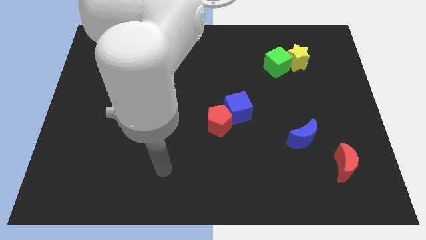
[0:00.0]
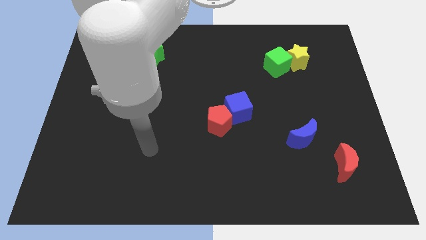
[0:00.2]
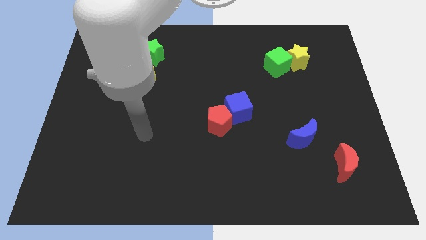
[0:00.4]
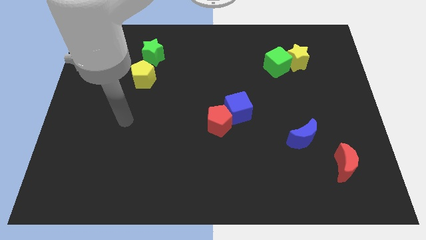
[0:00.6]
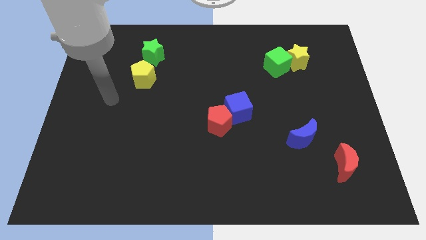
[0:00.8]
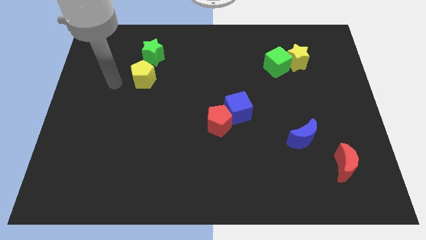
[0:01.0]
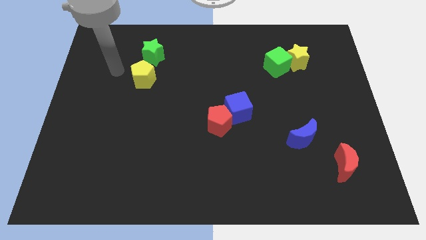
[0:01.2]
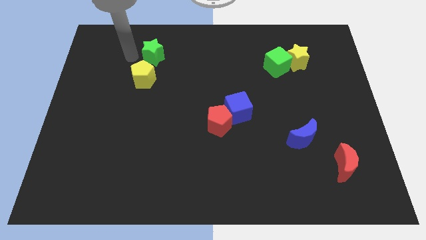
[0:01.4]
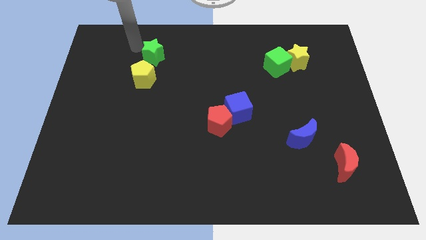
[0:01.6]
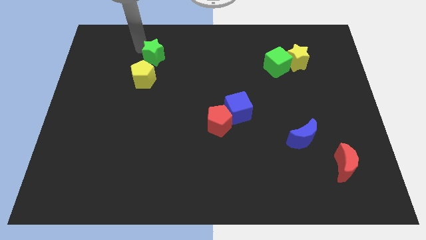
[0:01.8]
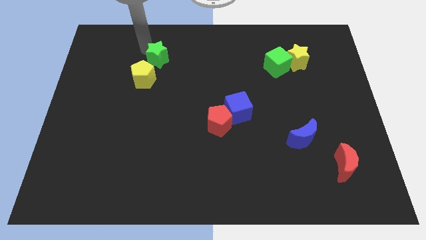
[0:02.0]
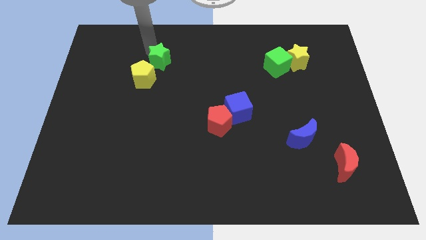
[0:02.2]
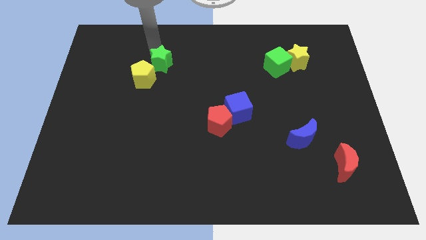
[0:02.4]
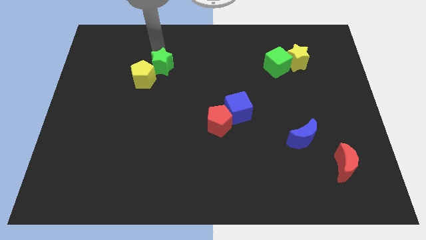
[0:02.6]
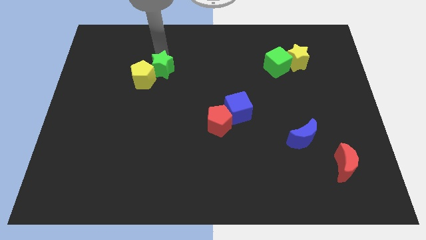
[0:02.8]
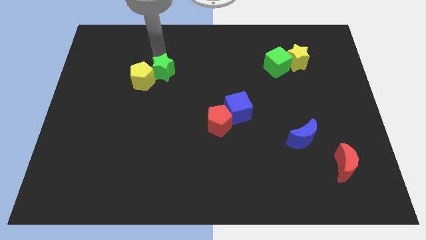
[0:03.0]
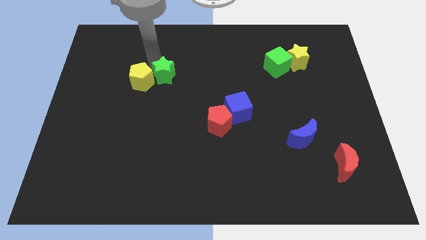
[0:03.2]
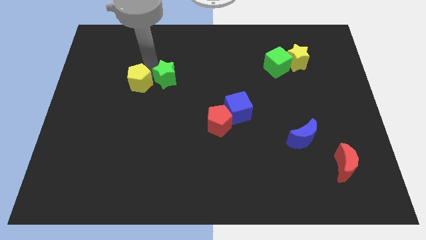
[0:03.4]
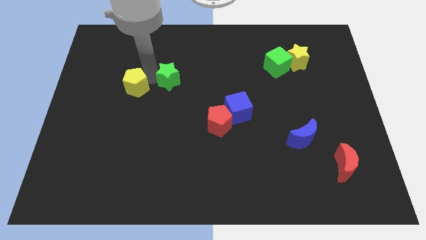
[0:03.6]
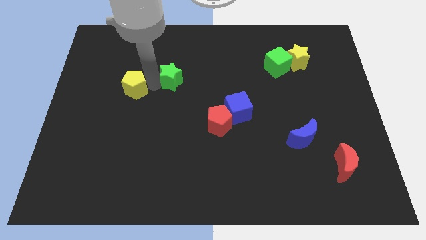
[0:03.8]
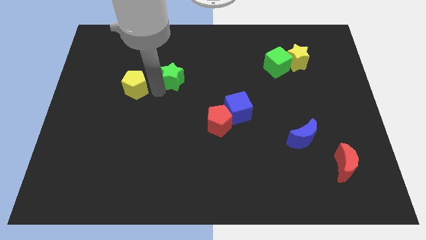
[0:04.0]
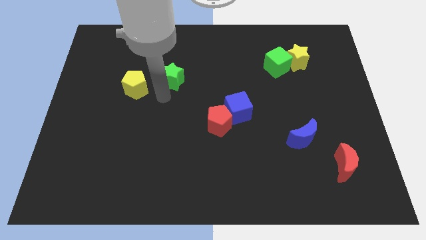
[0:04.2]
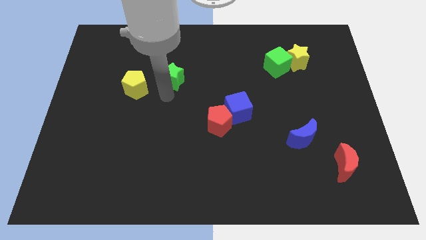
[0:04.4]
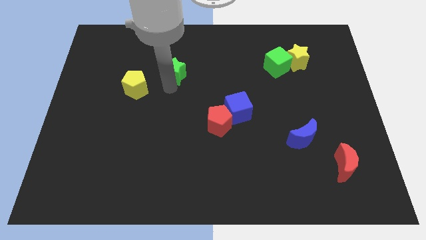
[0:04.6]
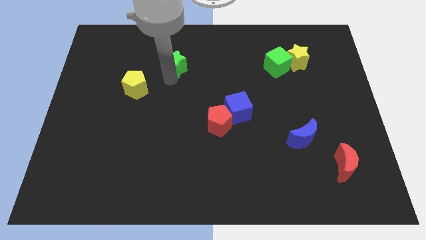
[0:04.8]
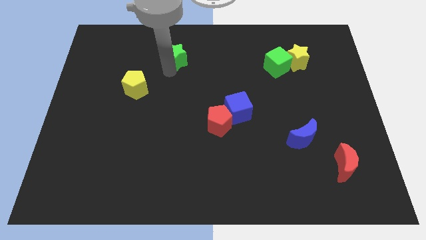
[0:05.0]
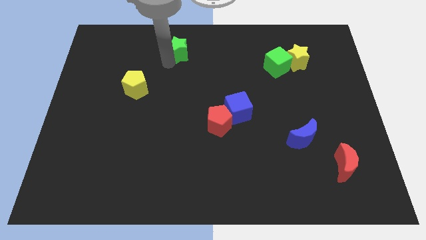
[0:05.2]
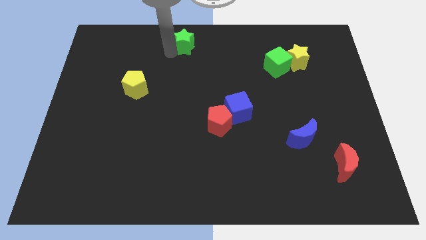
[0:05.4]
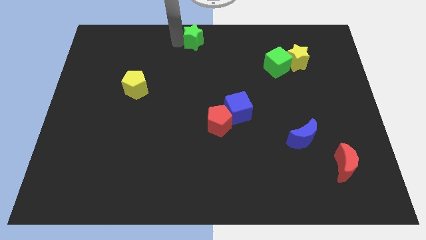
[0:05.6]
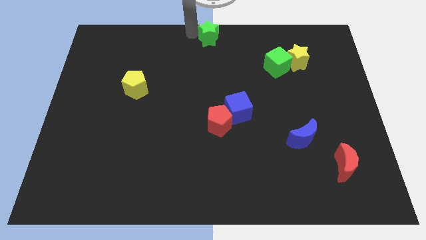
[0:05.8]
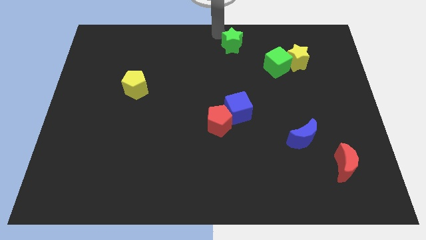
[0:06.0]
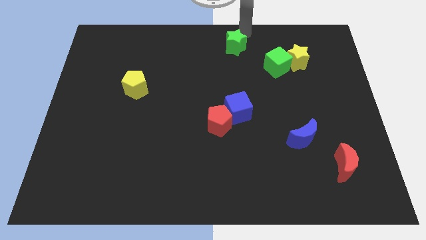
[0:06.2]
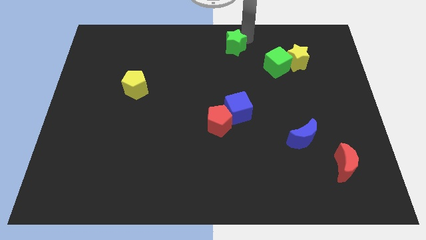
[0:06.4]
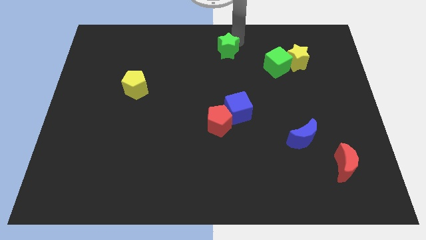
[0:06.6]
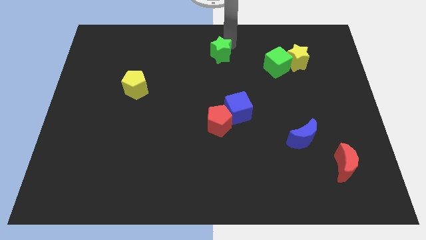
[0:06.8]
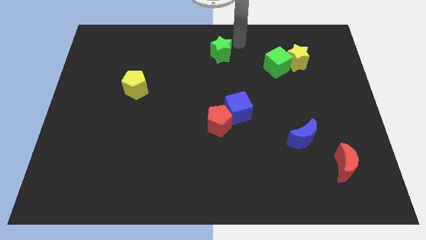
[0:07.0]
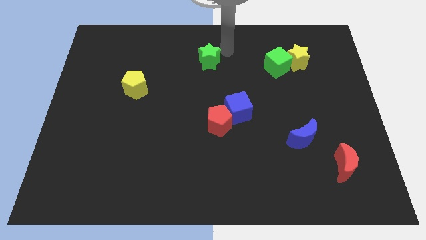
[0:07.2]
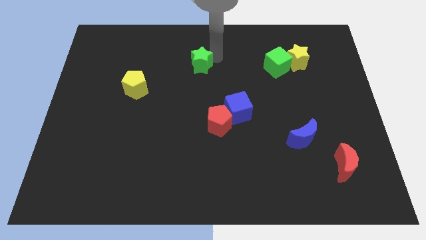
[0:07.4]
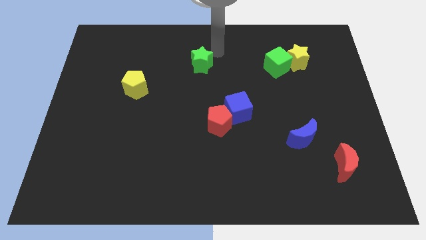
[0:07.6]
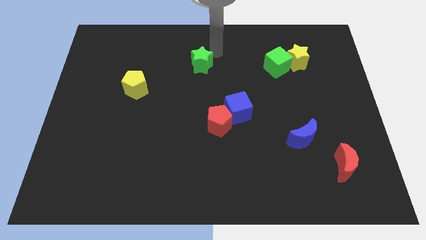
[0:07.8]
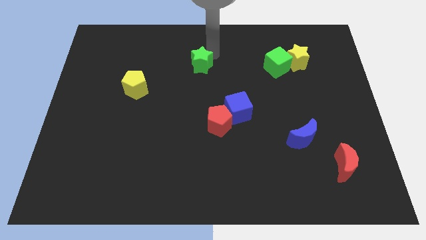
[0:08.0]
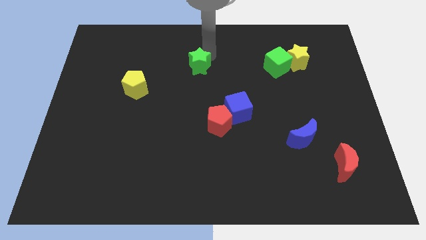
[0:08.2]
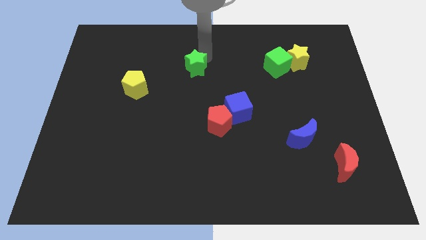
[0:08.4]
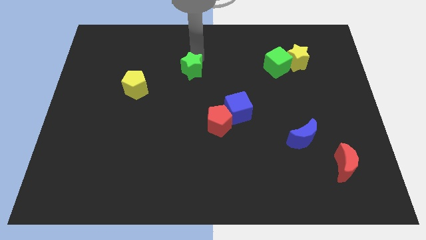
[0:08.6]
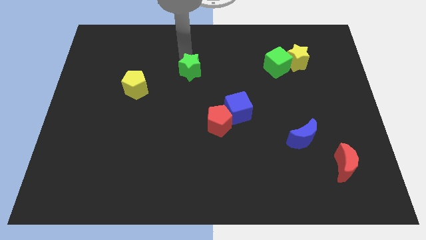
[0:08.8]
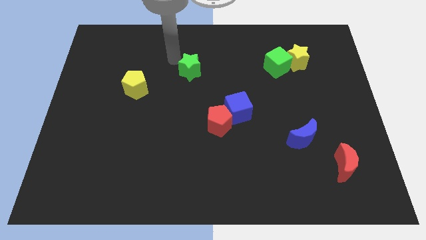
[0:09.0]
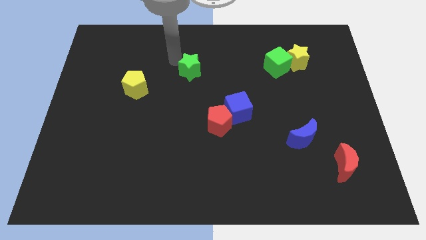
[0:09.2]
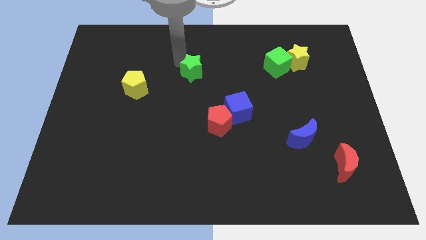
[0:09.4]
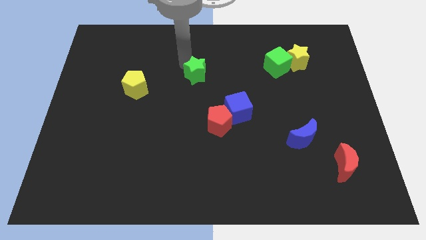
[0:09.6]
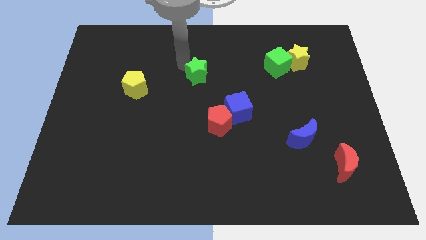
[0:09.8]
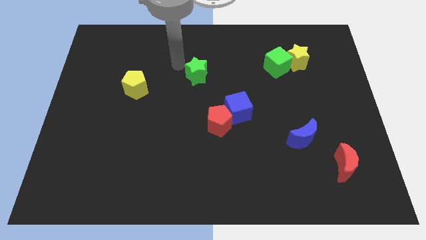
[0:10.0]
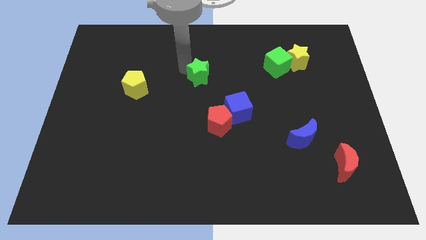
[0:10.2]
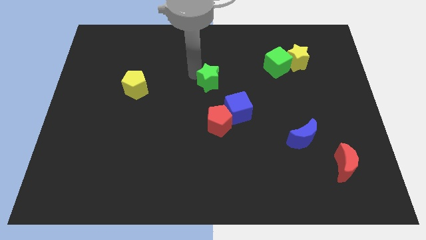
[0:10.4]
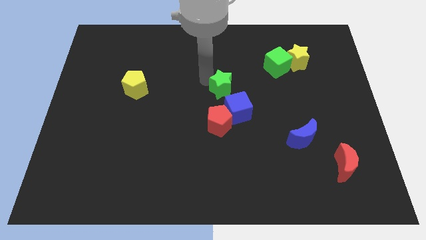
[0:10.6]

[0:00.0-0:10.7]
slide the green star down and to the right

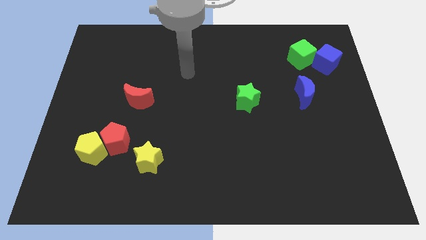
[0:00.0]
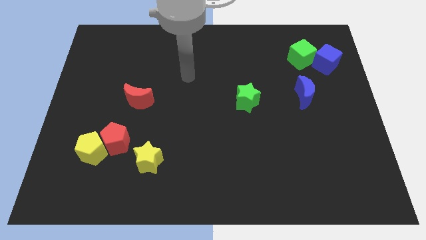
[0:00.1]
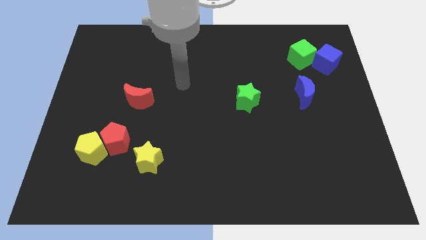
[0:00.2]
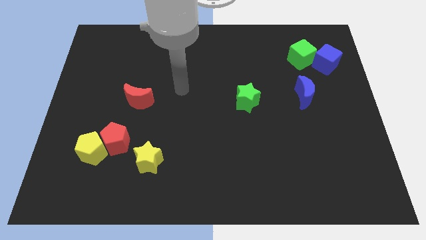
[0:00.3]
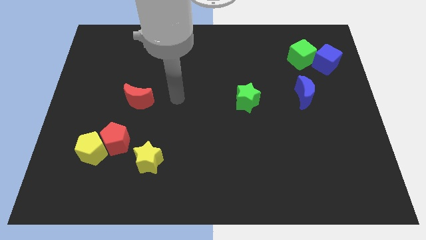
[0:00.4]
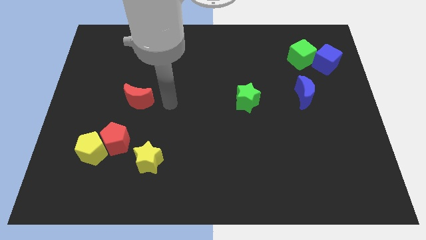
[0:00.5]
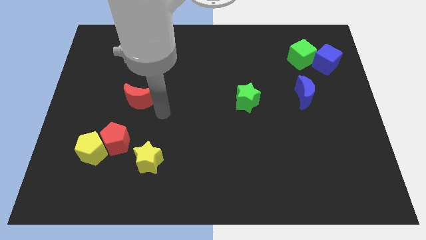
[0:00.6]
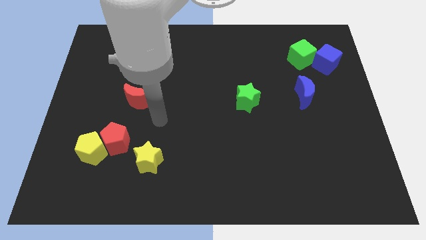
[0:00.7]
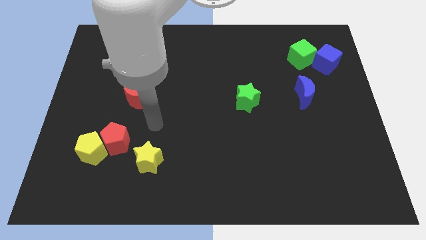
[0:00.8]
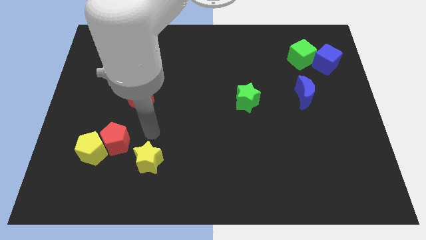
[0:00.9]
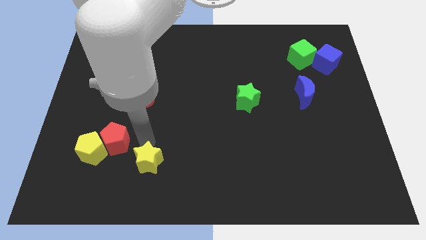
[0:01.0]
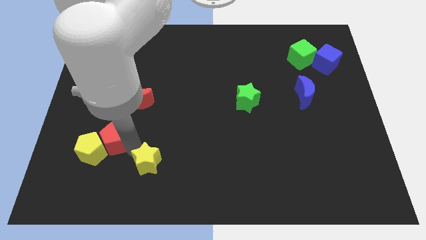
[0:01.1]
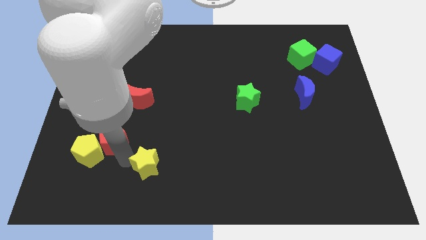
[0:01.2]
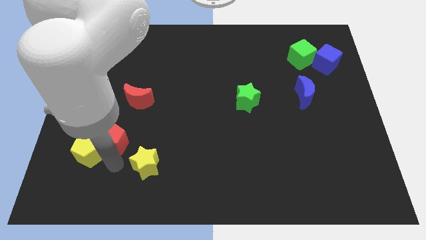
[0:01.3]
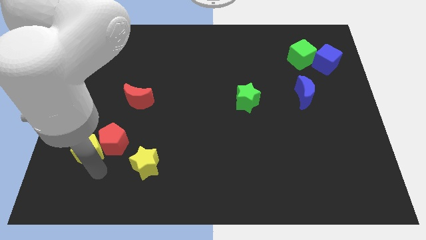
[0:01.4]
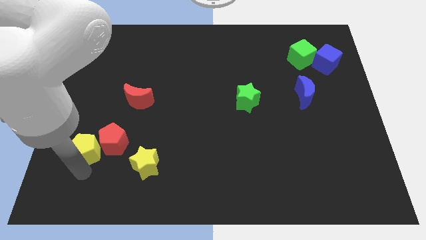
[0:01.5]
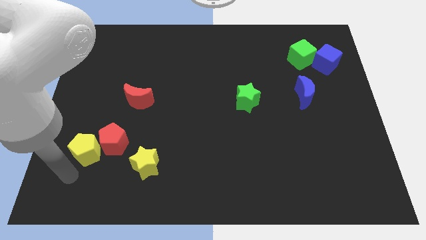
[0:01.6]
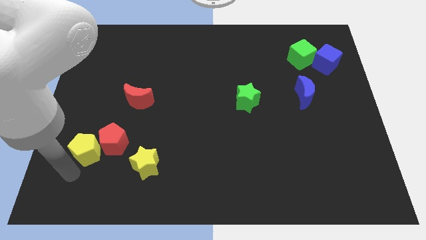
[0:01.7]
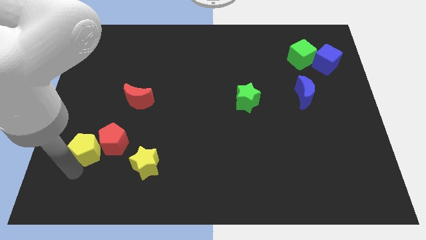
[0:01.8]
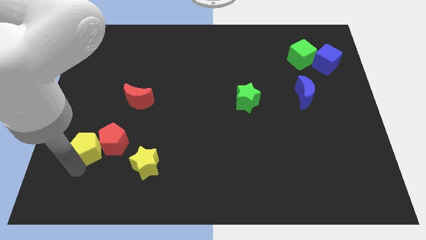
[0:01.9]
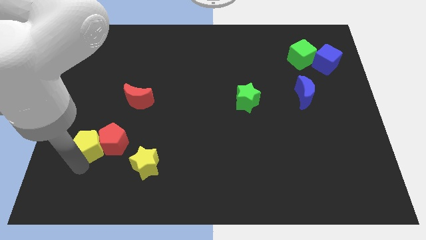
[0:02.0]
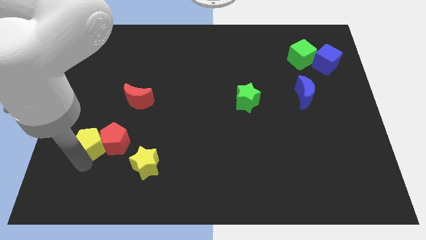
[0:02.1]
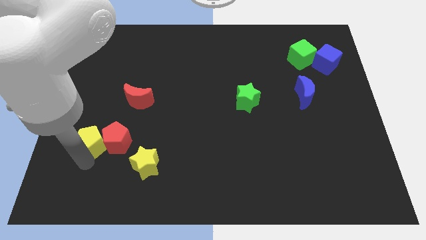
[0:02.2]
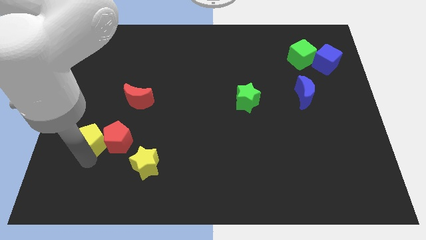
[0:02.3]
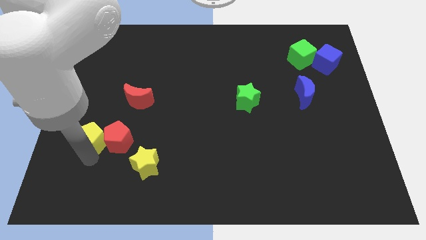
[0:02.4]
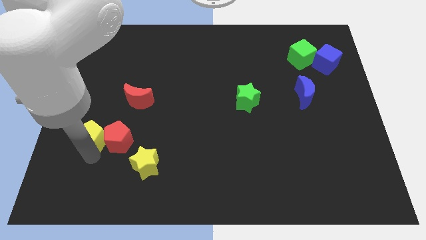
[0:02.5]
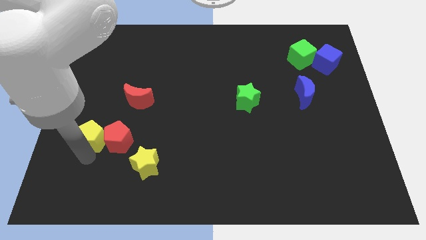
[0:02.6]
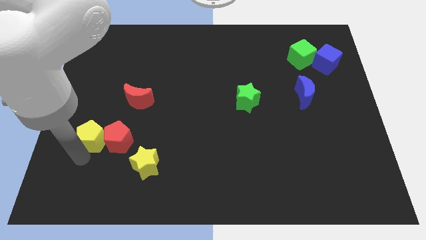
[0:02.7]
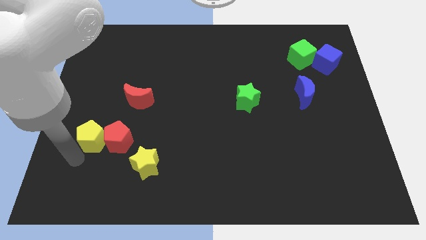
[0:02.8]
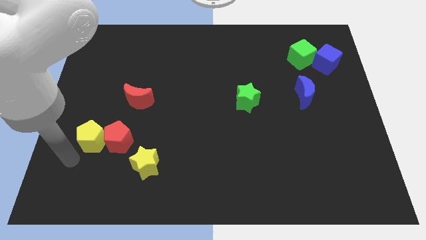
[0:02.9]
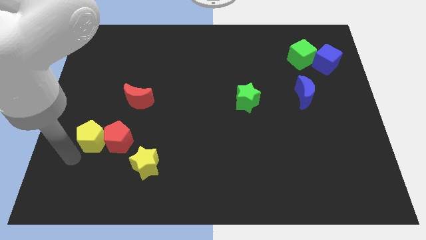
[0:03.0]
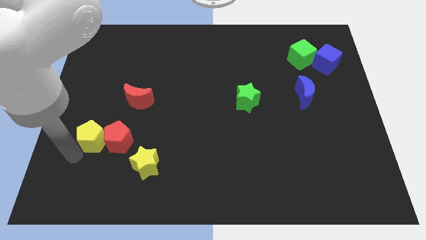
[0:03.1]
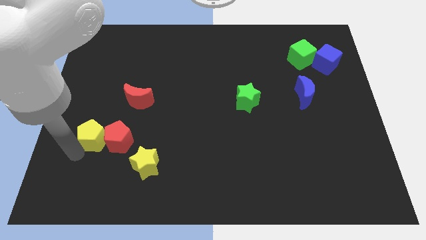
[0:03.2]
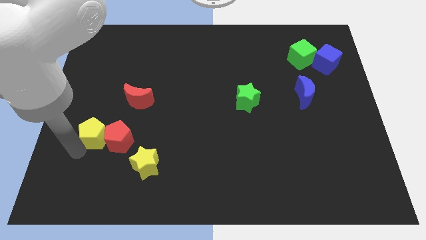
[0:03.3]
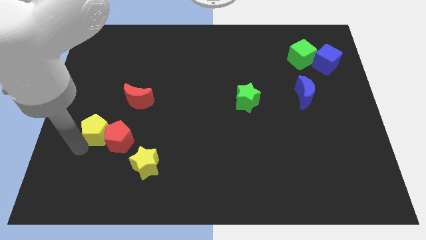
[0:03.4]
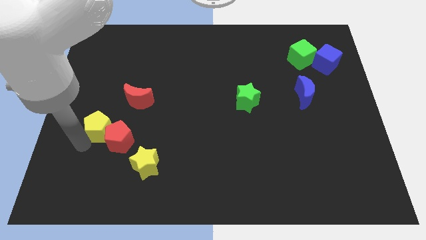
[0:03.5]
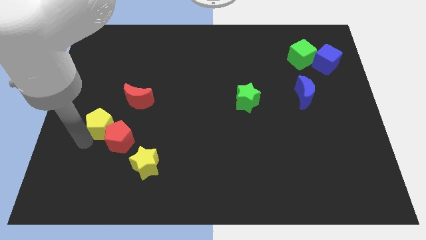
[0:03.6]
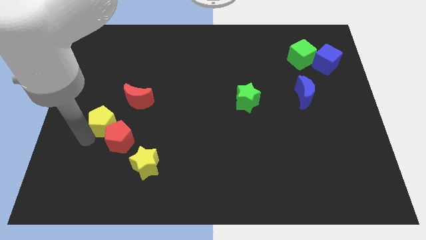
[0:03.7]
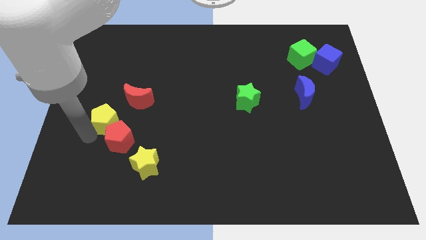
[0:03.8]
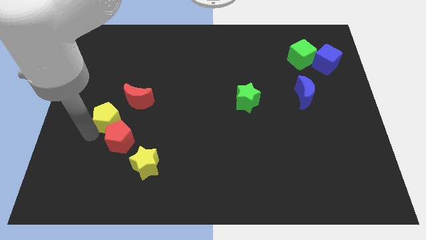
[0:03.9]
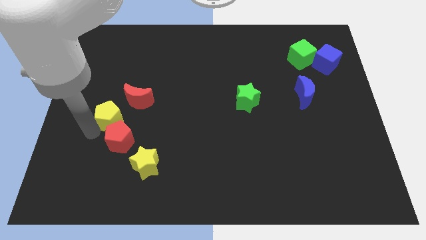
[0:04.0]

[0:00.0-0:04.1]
slightly move the yellow pentagon diagonally upwards and right
